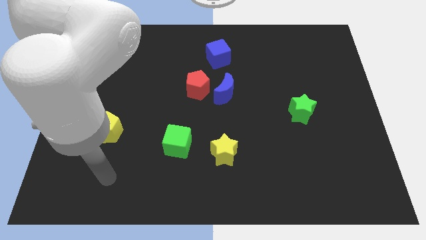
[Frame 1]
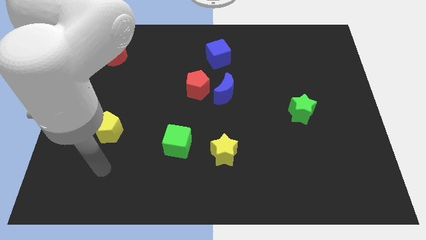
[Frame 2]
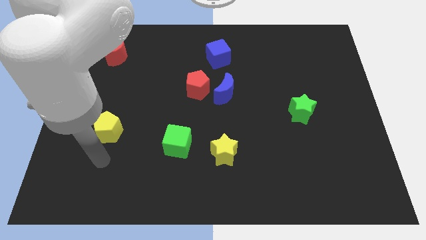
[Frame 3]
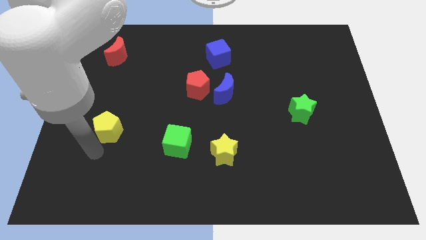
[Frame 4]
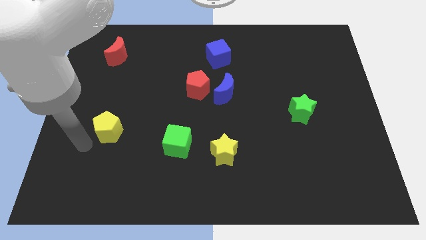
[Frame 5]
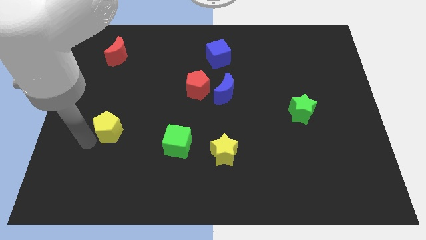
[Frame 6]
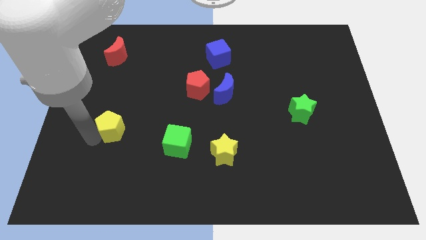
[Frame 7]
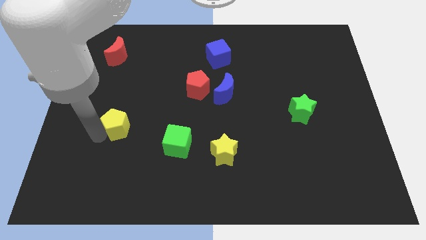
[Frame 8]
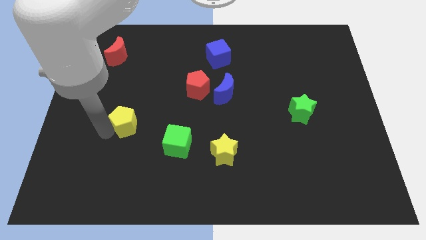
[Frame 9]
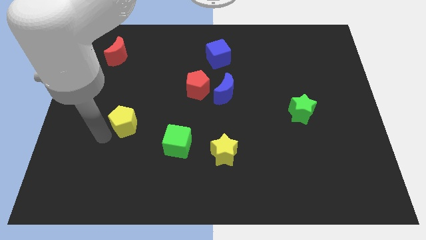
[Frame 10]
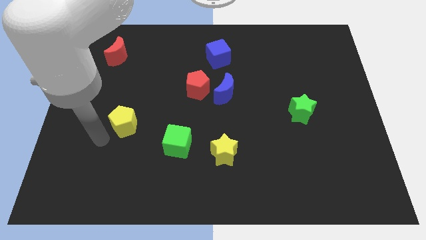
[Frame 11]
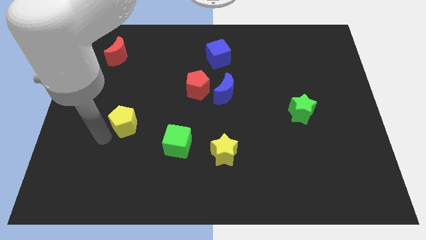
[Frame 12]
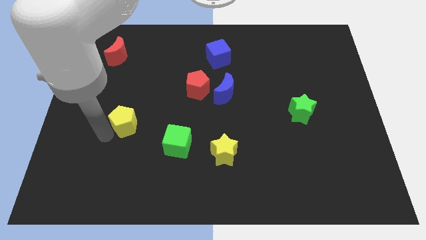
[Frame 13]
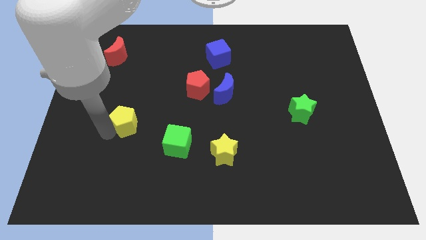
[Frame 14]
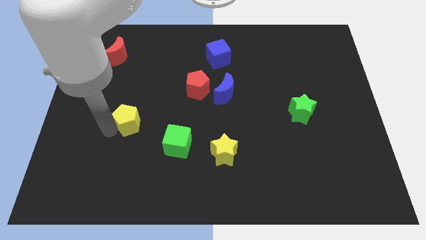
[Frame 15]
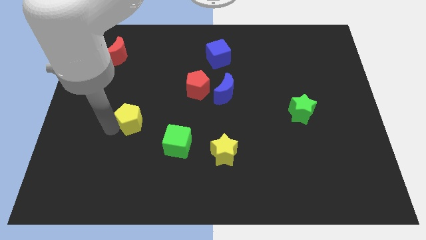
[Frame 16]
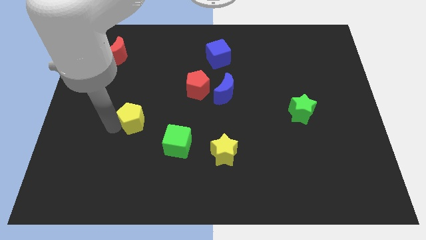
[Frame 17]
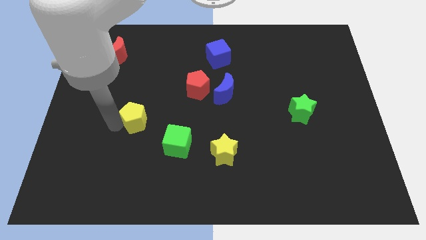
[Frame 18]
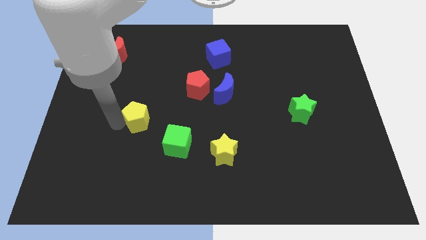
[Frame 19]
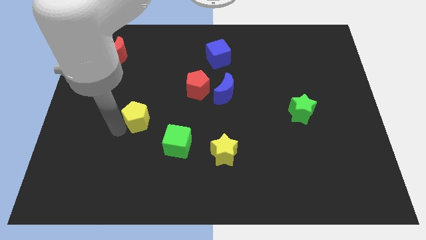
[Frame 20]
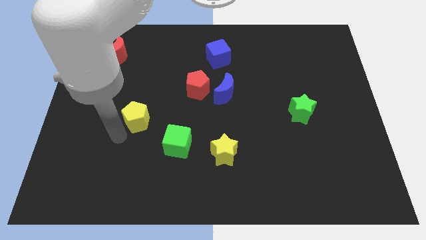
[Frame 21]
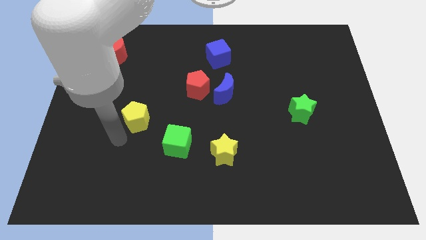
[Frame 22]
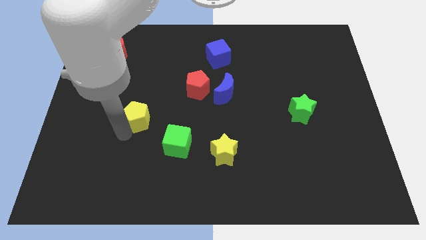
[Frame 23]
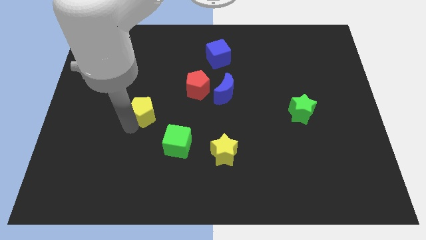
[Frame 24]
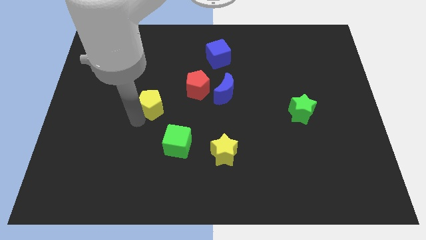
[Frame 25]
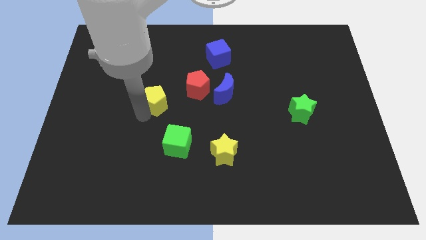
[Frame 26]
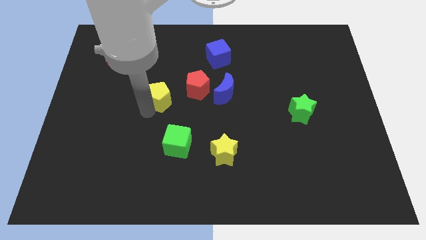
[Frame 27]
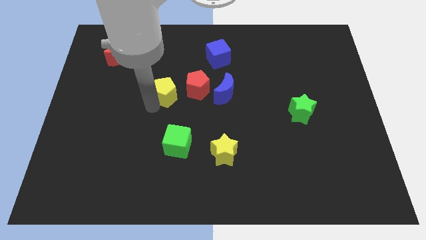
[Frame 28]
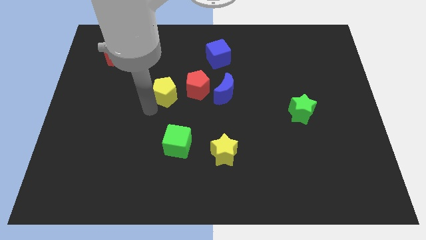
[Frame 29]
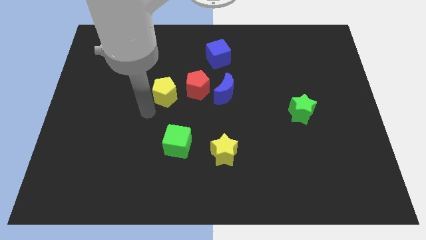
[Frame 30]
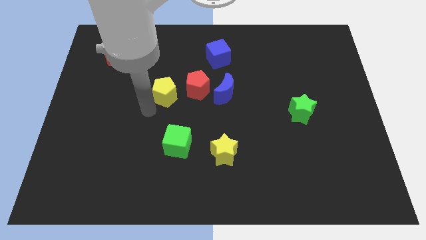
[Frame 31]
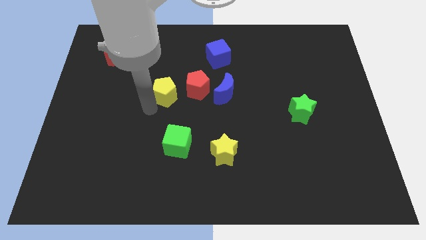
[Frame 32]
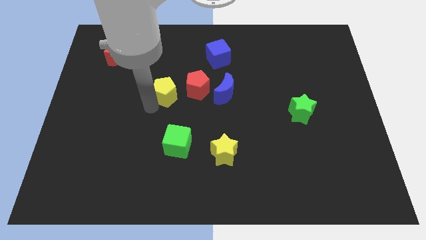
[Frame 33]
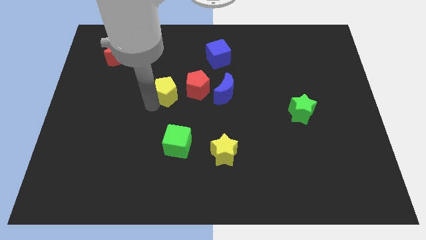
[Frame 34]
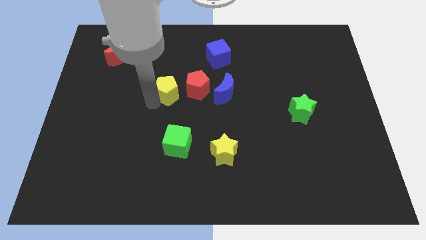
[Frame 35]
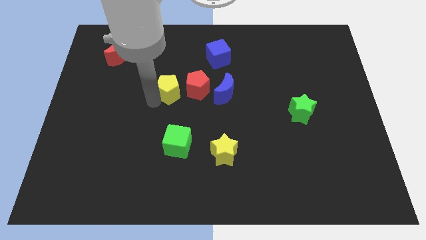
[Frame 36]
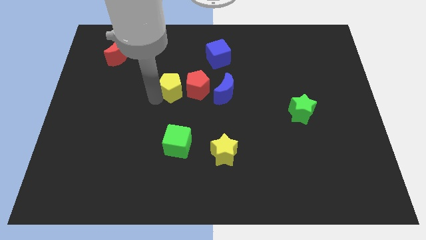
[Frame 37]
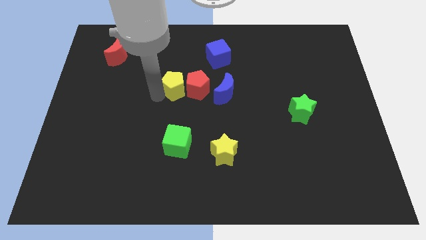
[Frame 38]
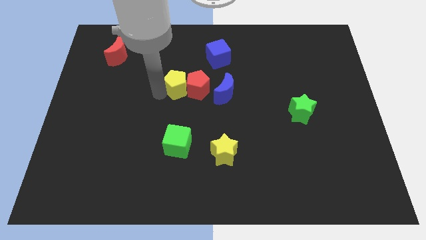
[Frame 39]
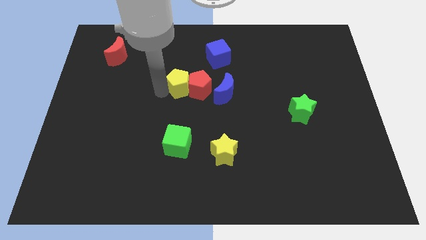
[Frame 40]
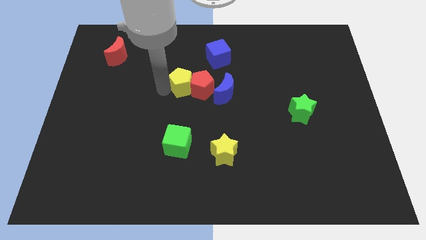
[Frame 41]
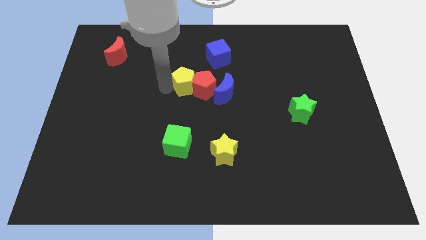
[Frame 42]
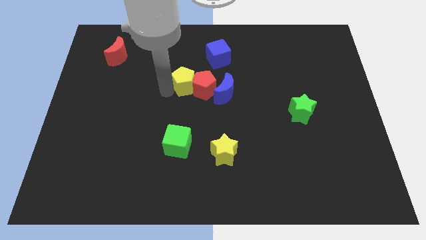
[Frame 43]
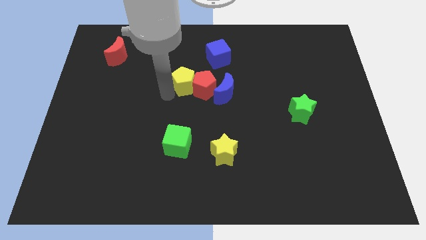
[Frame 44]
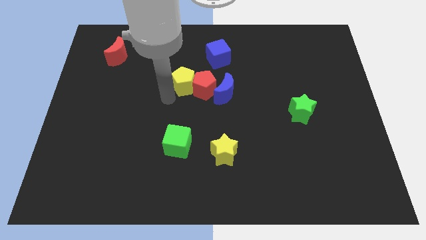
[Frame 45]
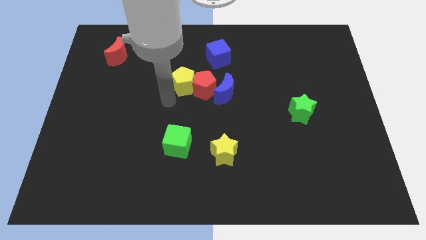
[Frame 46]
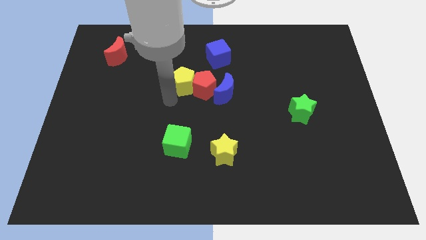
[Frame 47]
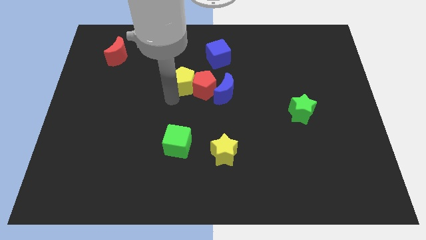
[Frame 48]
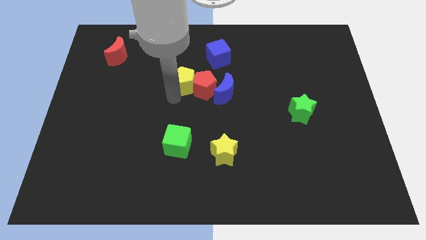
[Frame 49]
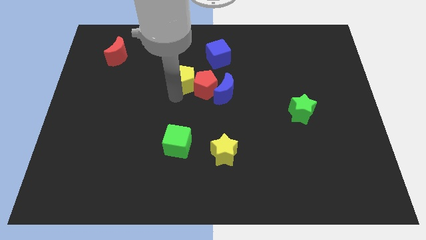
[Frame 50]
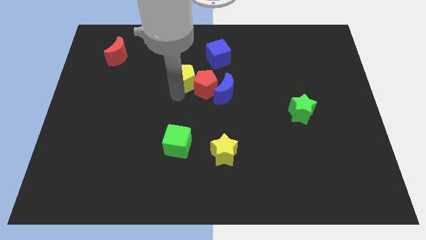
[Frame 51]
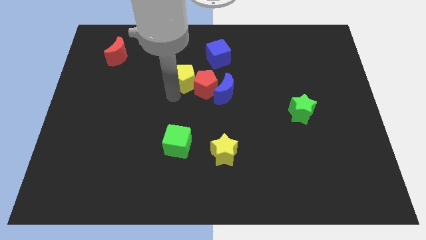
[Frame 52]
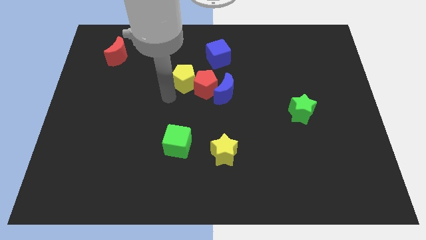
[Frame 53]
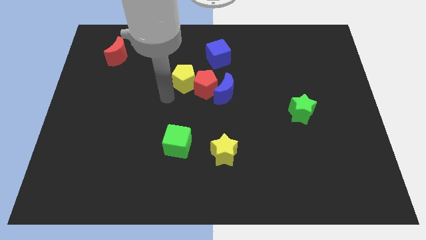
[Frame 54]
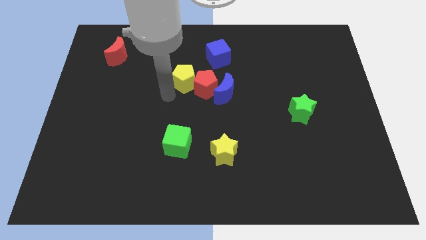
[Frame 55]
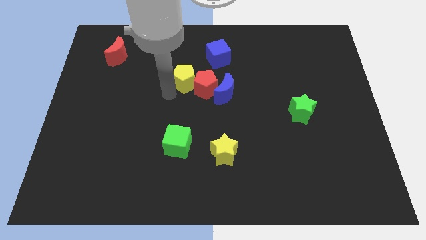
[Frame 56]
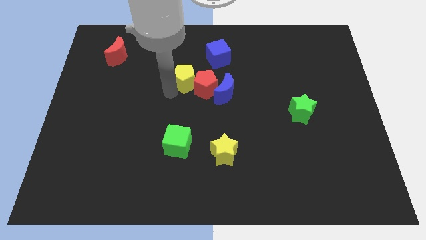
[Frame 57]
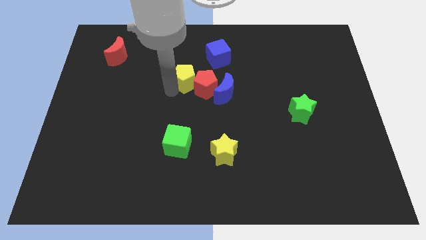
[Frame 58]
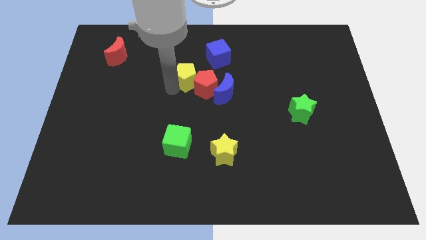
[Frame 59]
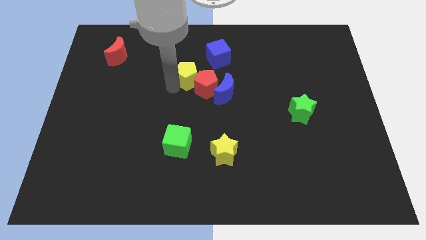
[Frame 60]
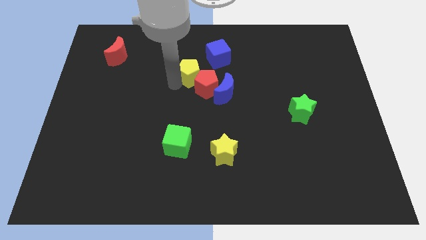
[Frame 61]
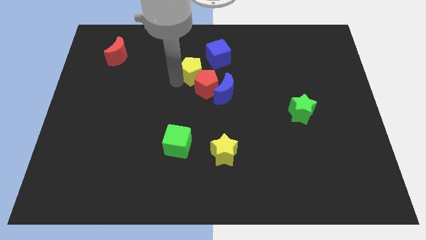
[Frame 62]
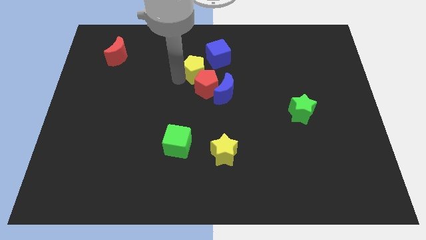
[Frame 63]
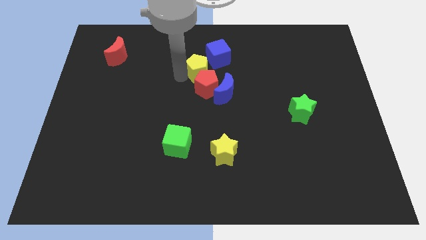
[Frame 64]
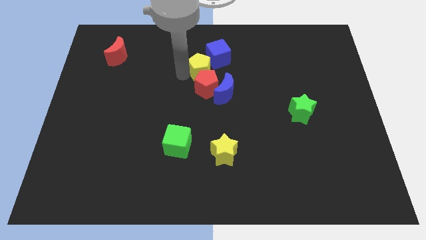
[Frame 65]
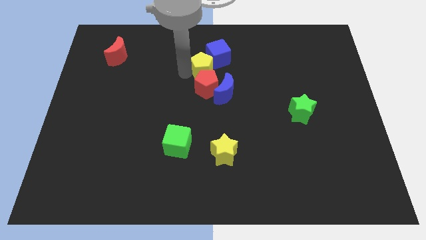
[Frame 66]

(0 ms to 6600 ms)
put the yellow pentagon towards the blue cube
